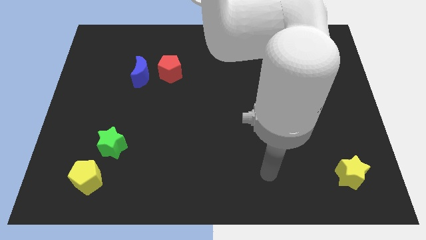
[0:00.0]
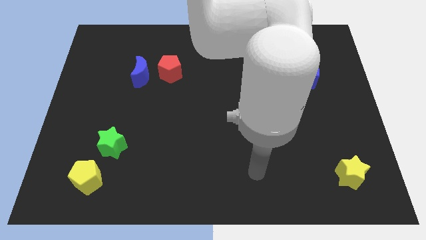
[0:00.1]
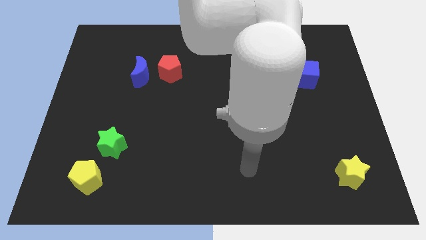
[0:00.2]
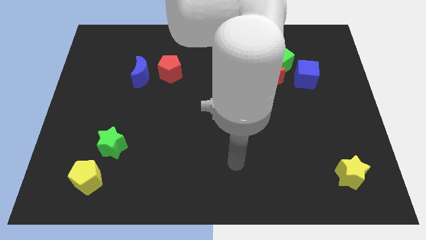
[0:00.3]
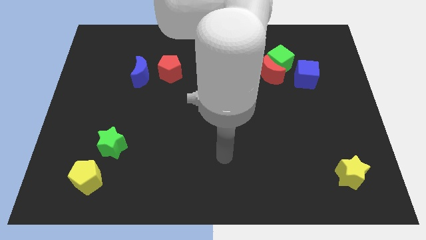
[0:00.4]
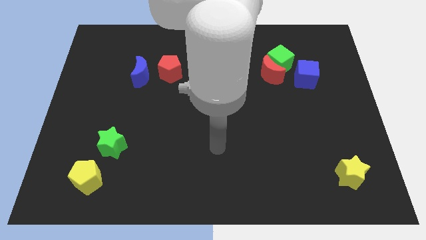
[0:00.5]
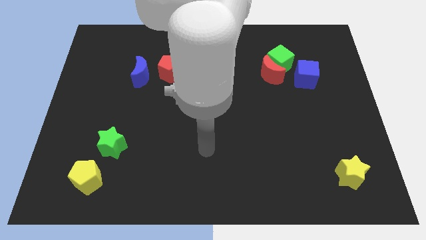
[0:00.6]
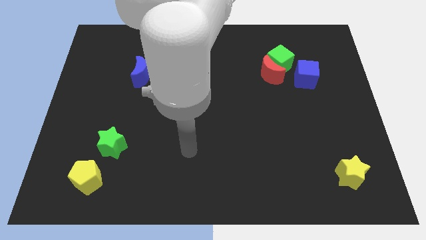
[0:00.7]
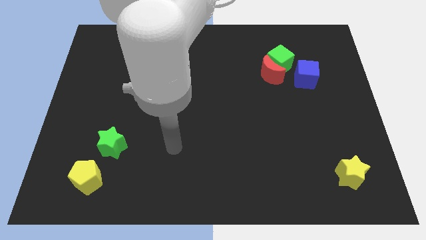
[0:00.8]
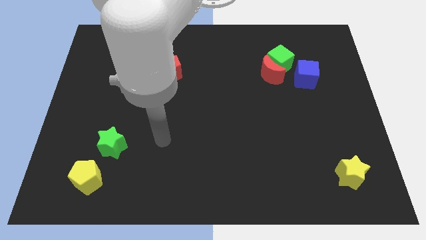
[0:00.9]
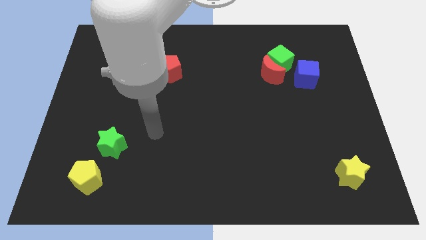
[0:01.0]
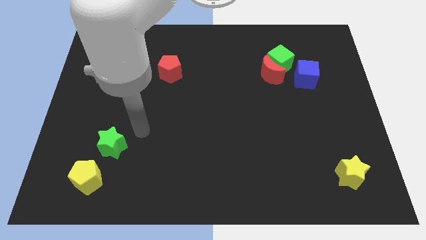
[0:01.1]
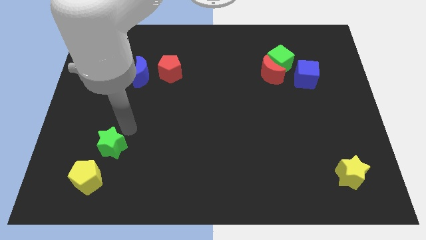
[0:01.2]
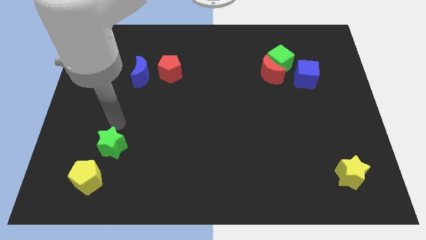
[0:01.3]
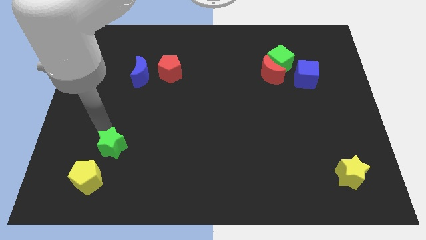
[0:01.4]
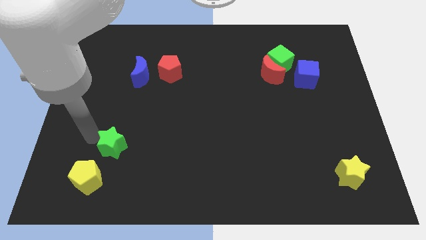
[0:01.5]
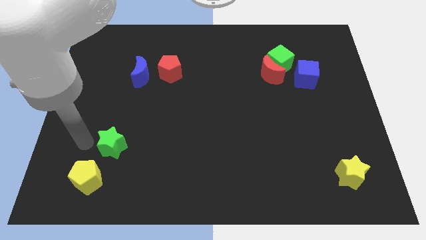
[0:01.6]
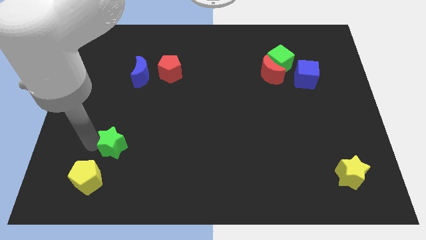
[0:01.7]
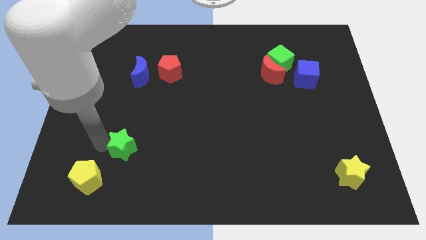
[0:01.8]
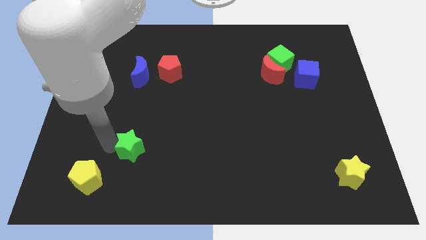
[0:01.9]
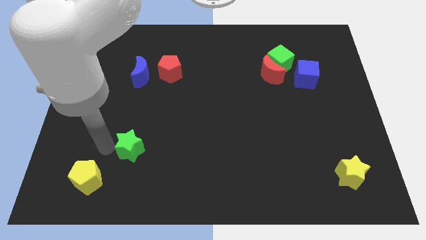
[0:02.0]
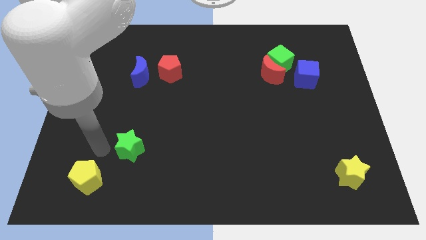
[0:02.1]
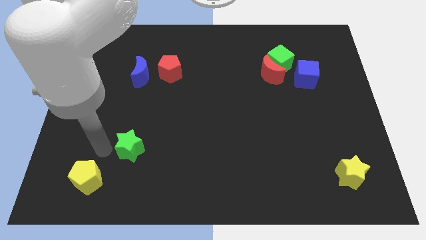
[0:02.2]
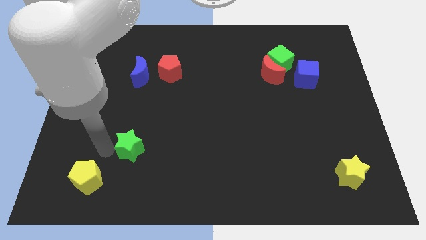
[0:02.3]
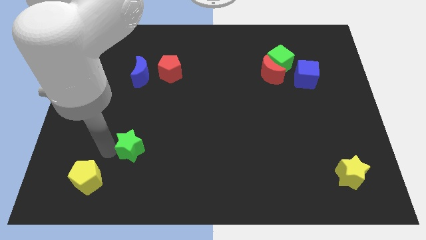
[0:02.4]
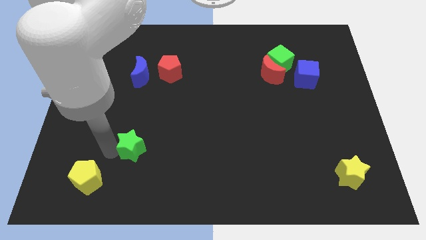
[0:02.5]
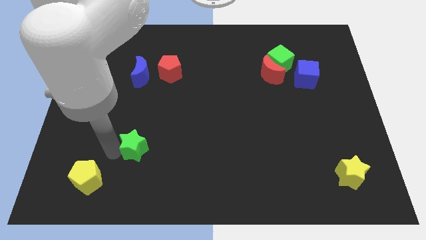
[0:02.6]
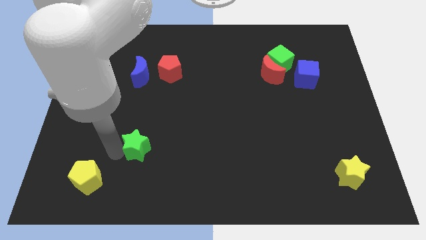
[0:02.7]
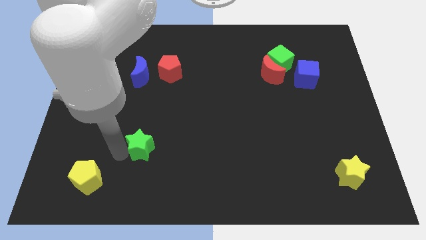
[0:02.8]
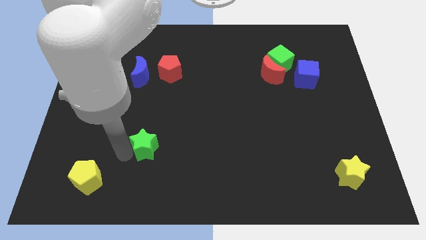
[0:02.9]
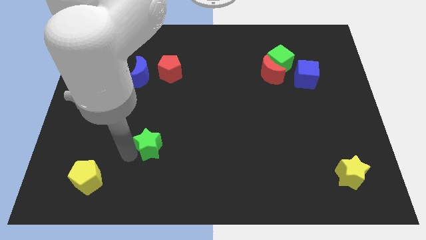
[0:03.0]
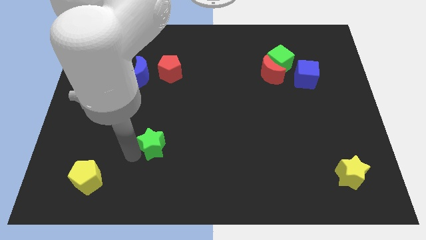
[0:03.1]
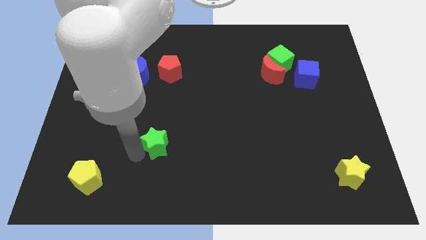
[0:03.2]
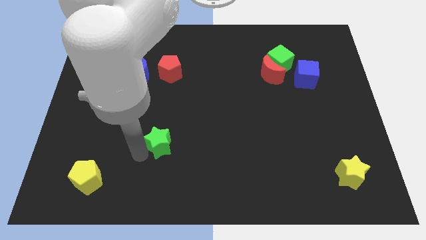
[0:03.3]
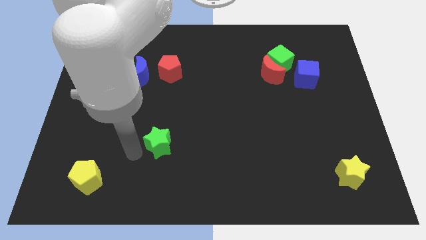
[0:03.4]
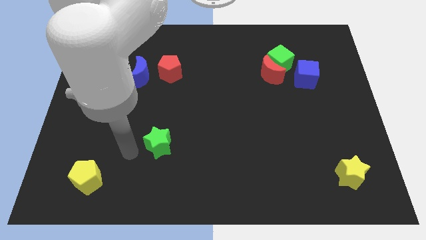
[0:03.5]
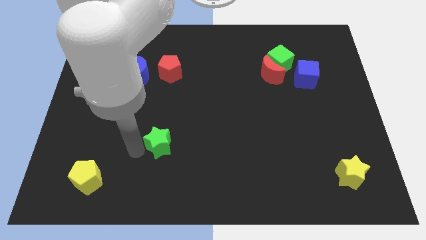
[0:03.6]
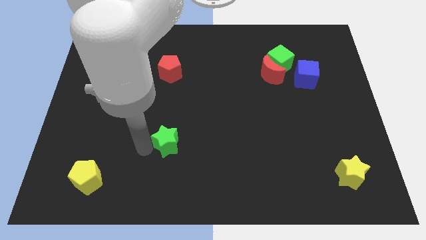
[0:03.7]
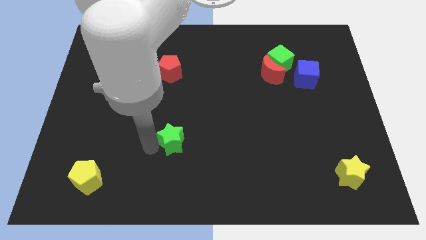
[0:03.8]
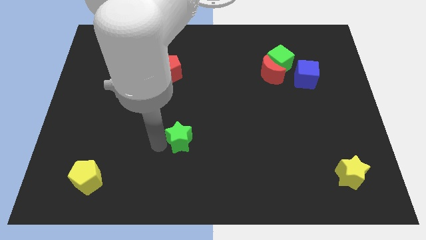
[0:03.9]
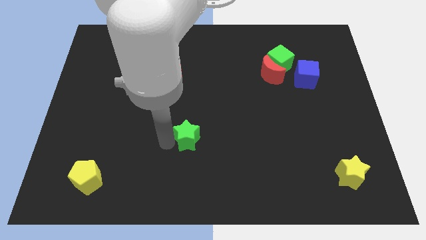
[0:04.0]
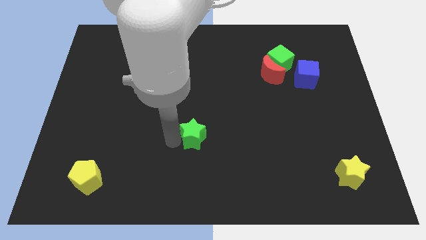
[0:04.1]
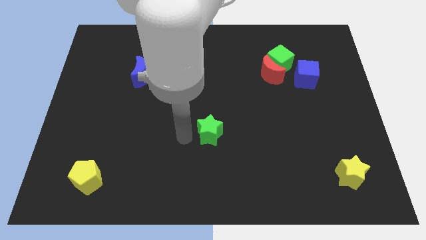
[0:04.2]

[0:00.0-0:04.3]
move the green star to the right

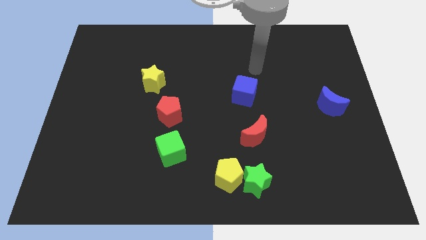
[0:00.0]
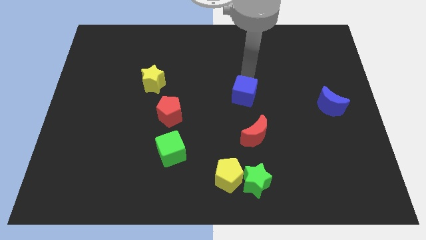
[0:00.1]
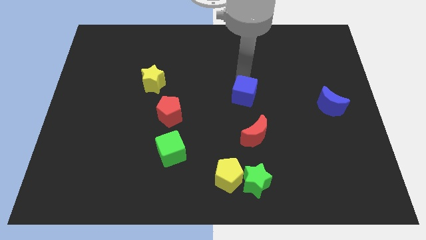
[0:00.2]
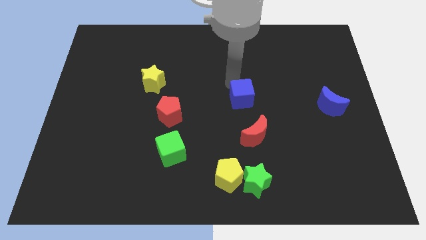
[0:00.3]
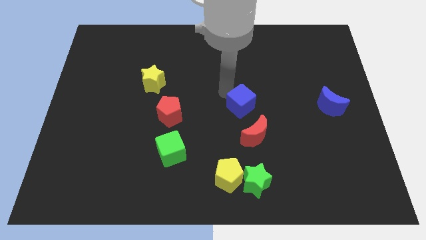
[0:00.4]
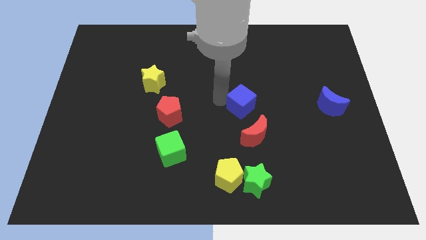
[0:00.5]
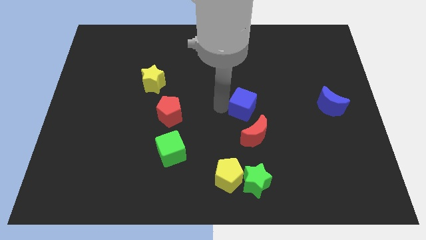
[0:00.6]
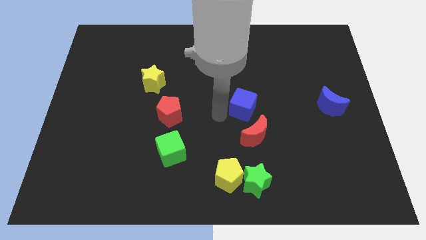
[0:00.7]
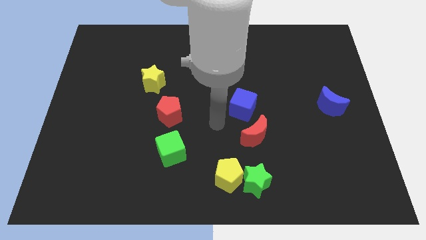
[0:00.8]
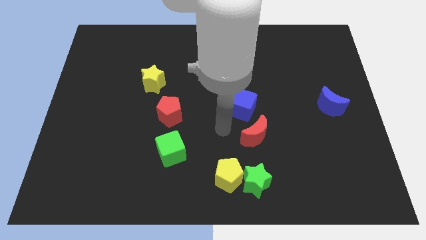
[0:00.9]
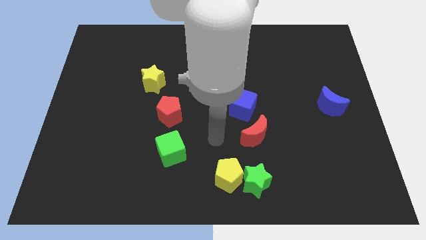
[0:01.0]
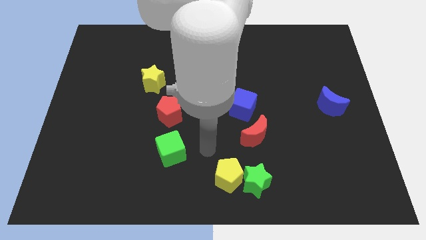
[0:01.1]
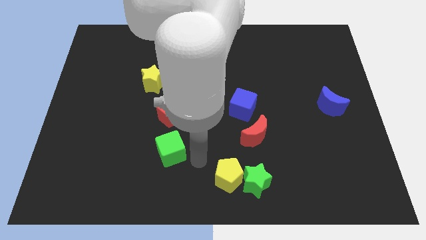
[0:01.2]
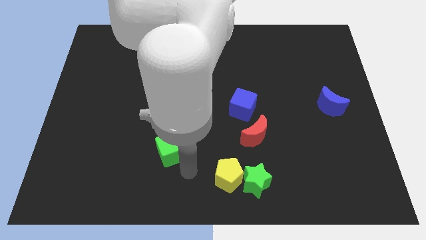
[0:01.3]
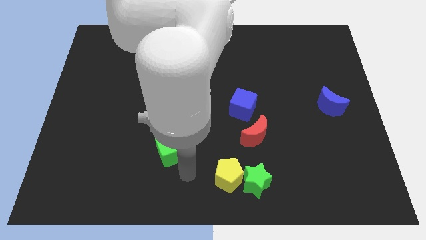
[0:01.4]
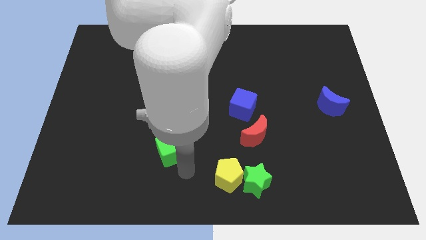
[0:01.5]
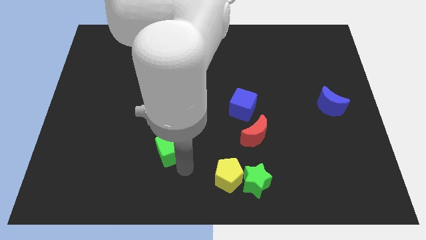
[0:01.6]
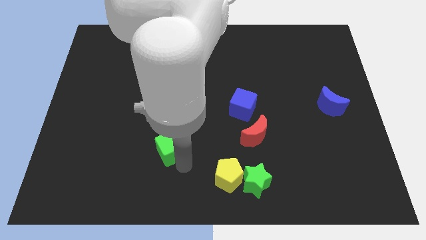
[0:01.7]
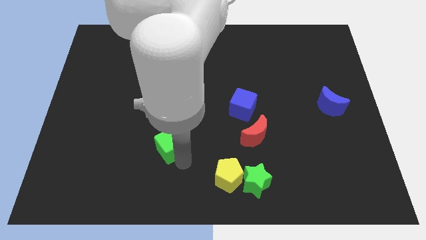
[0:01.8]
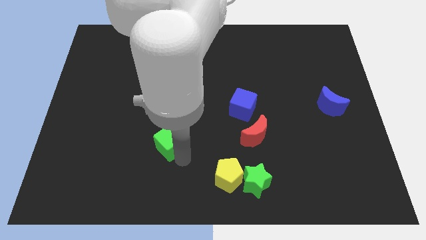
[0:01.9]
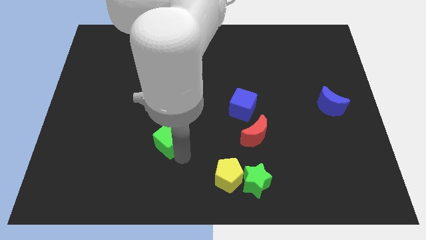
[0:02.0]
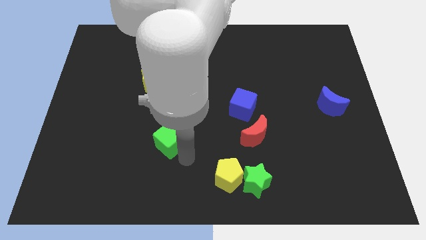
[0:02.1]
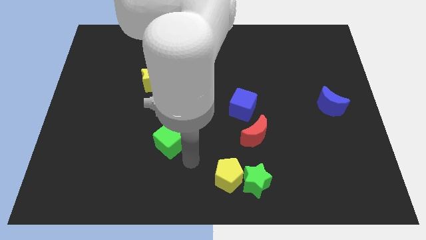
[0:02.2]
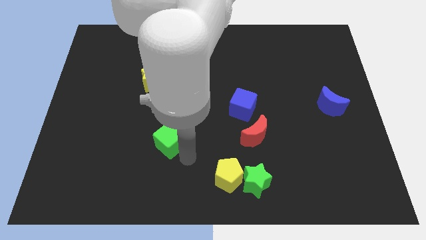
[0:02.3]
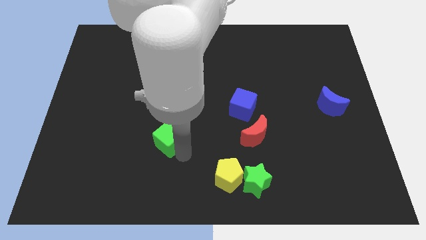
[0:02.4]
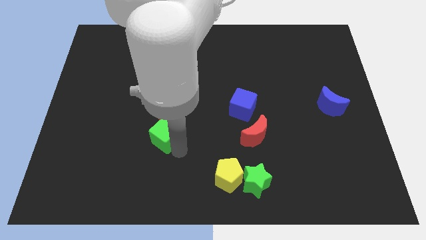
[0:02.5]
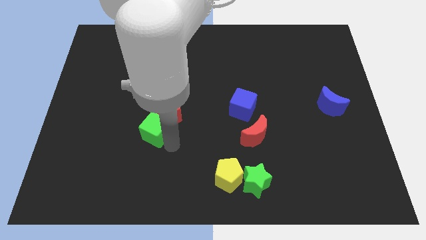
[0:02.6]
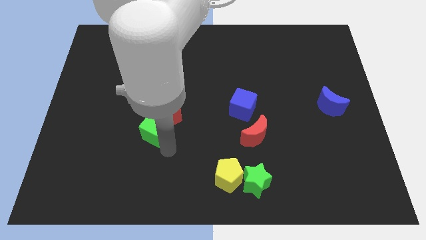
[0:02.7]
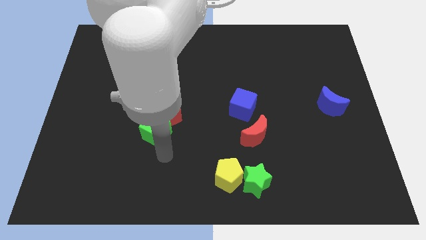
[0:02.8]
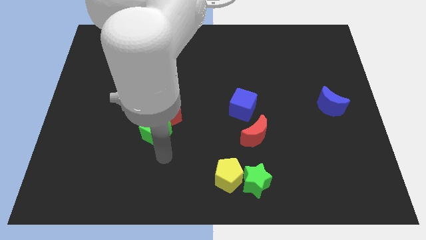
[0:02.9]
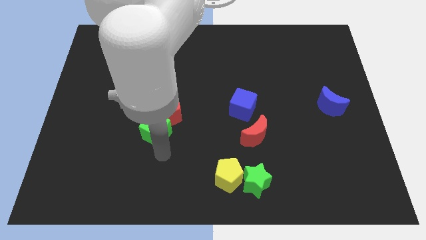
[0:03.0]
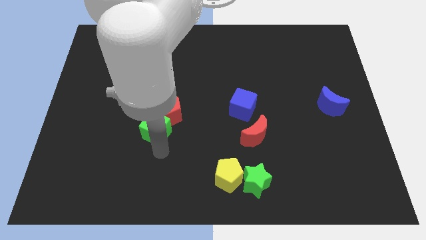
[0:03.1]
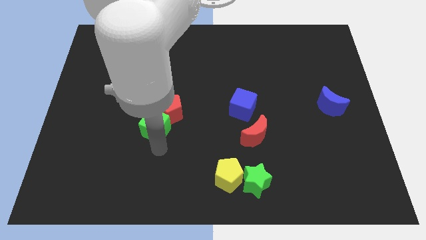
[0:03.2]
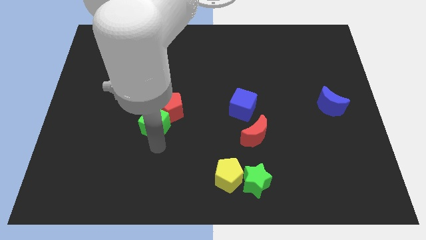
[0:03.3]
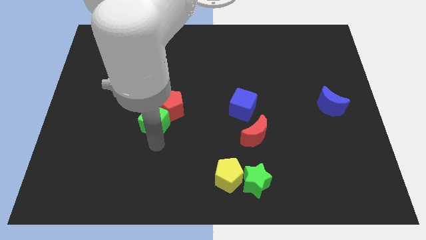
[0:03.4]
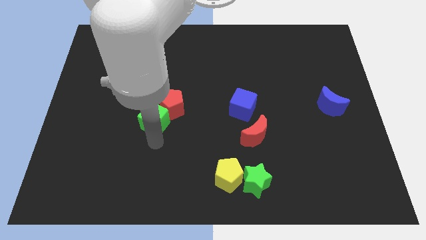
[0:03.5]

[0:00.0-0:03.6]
slightly move the green cube up

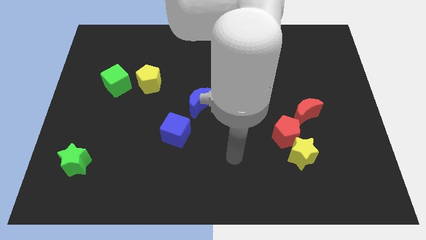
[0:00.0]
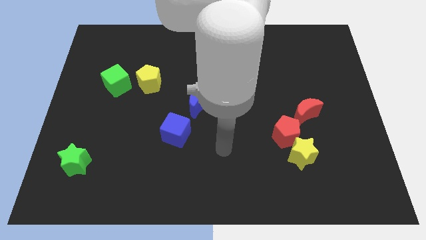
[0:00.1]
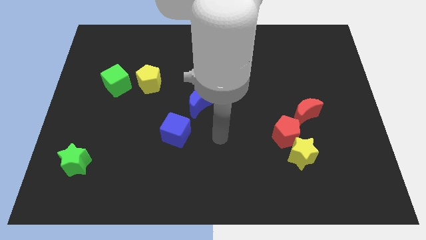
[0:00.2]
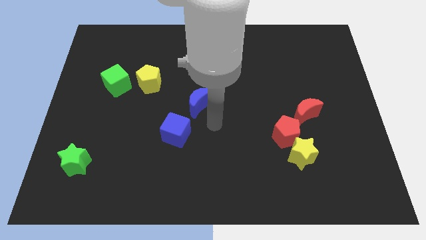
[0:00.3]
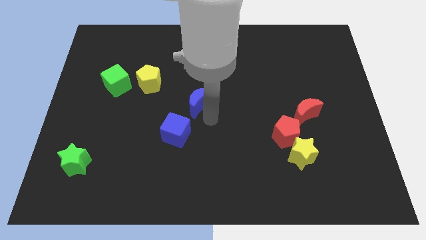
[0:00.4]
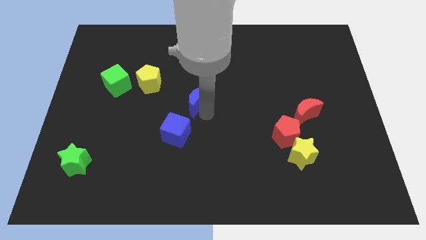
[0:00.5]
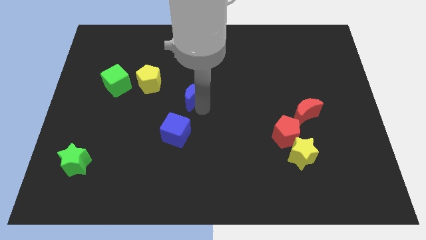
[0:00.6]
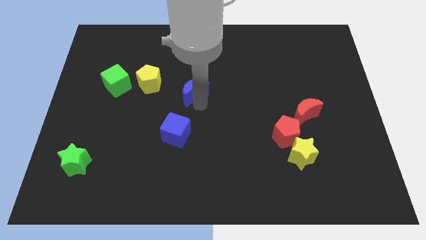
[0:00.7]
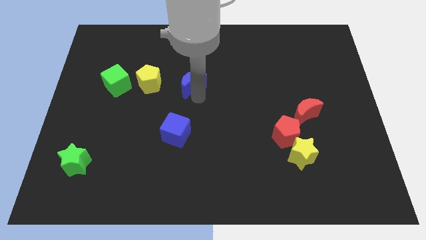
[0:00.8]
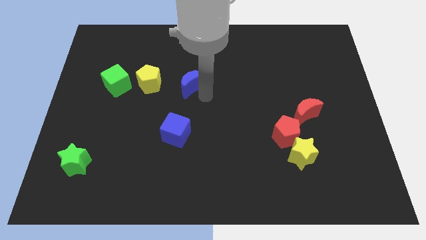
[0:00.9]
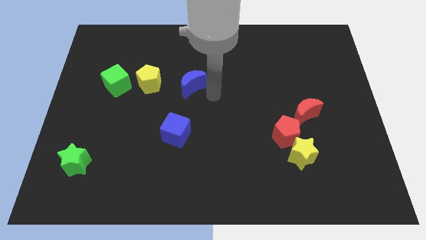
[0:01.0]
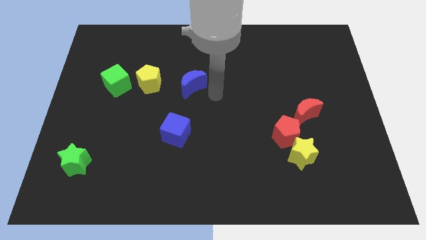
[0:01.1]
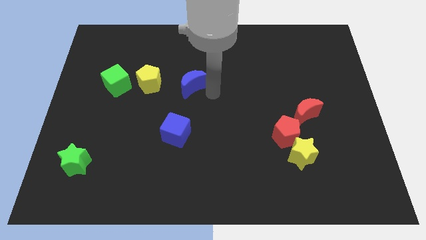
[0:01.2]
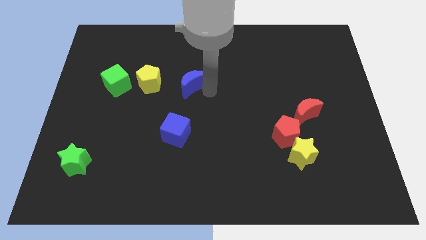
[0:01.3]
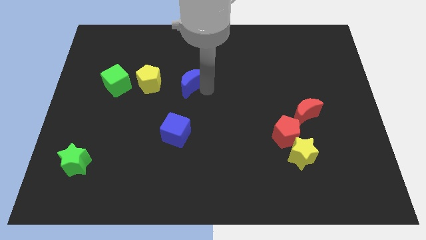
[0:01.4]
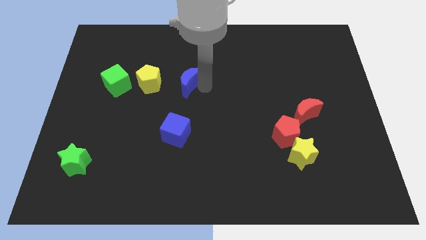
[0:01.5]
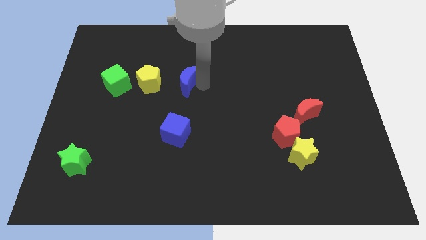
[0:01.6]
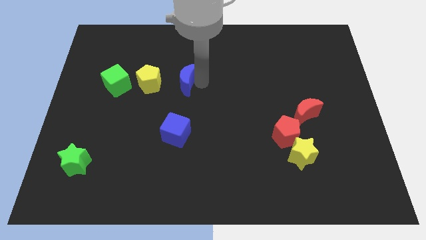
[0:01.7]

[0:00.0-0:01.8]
slightly slide the blue moon upwards and left diagonally
